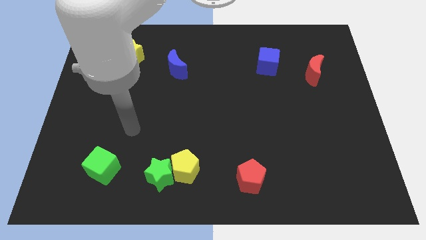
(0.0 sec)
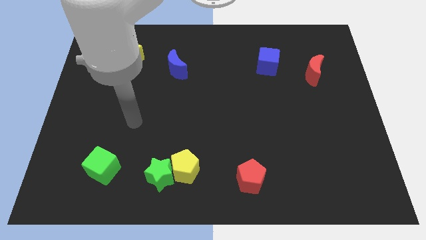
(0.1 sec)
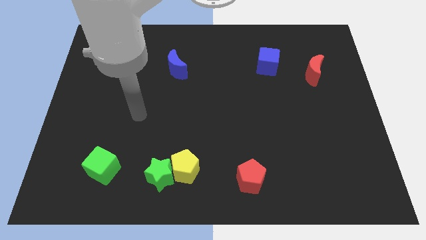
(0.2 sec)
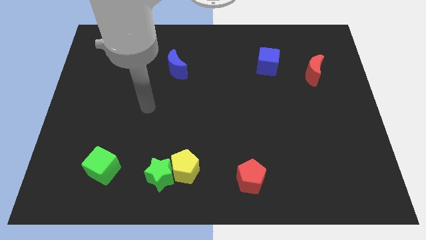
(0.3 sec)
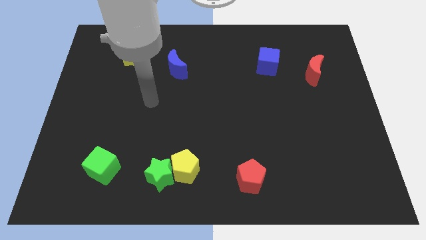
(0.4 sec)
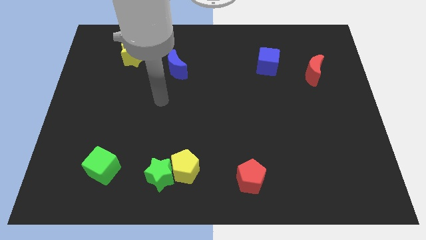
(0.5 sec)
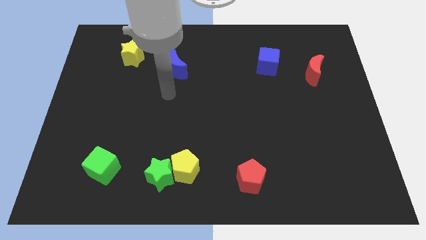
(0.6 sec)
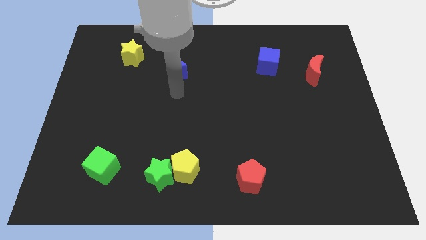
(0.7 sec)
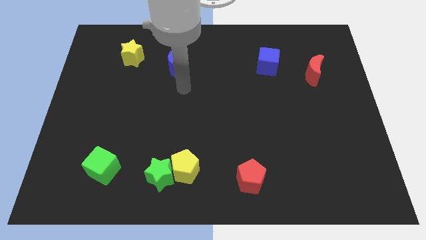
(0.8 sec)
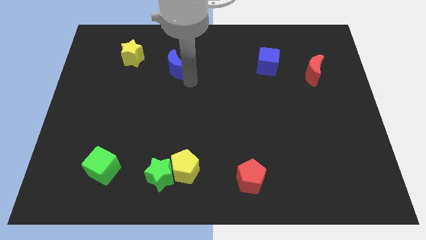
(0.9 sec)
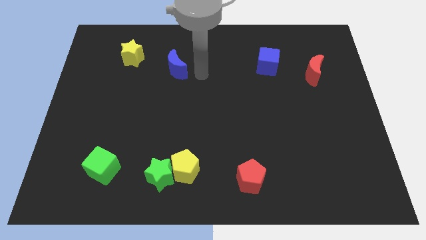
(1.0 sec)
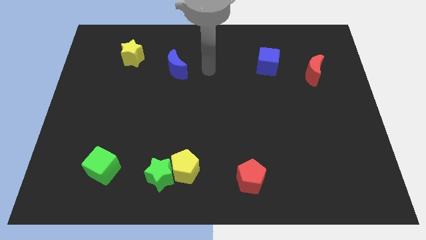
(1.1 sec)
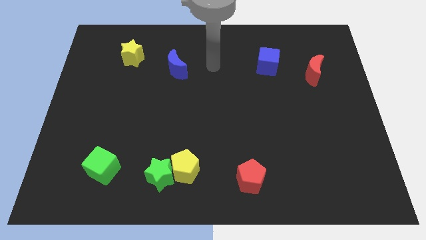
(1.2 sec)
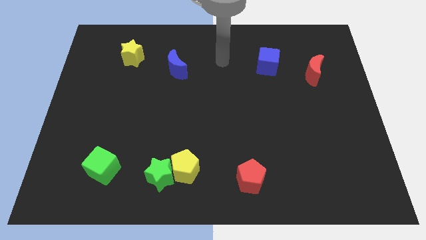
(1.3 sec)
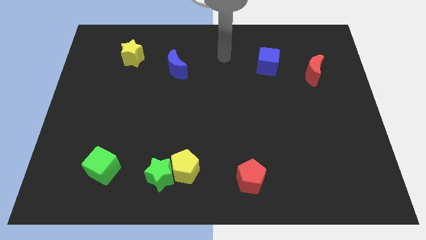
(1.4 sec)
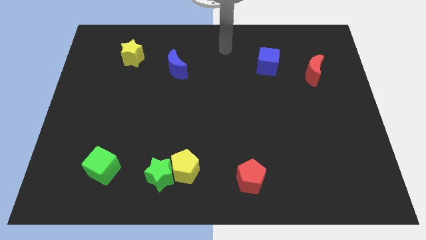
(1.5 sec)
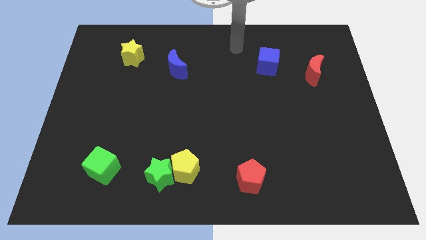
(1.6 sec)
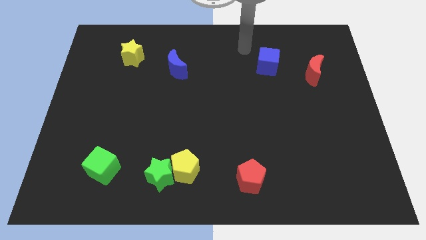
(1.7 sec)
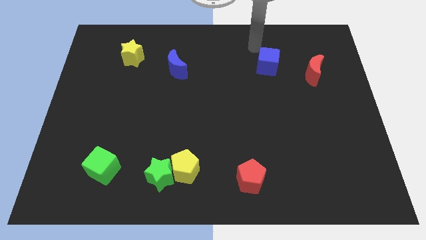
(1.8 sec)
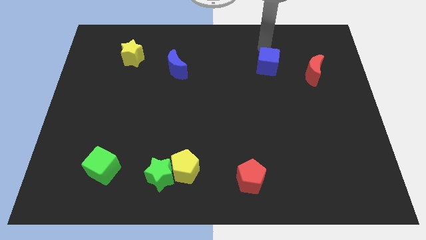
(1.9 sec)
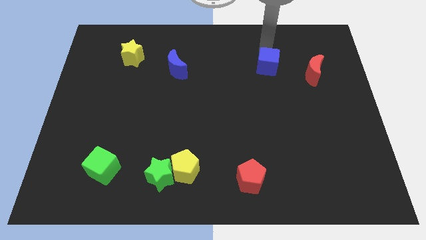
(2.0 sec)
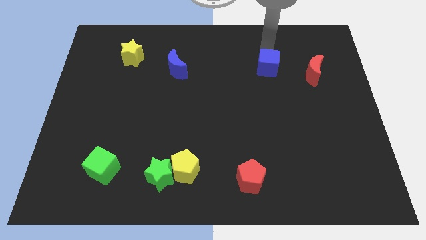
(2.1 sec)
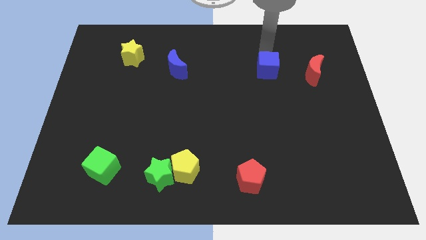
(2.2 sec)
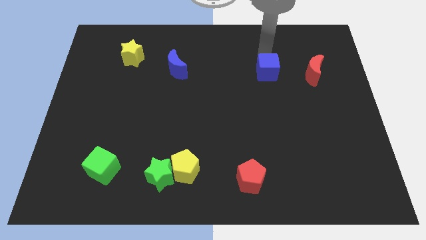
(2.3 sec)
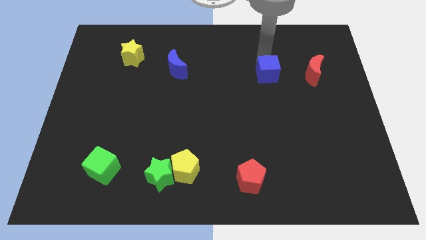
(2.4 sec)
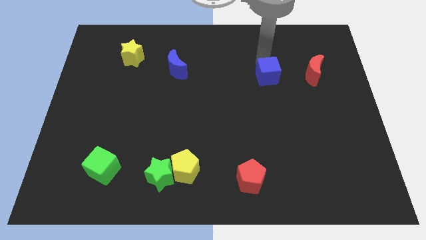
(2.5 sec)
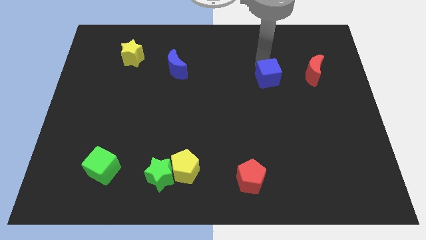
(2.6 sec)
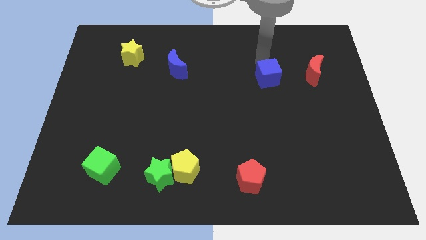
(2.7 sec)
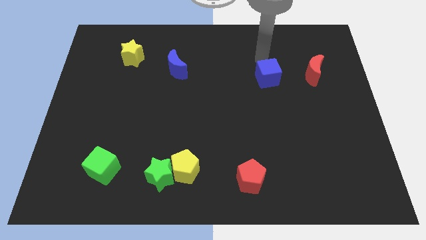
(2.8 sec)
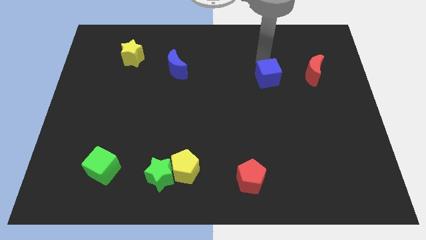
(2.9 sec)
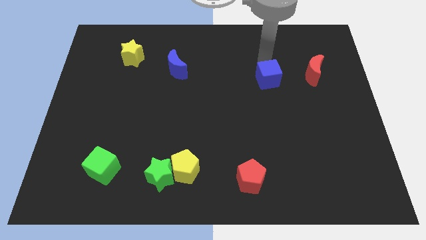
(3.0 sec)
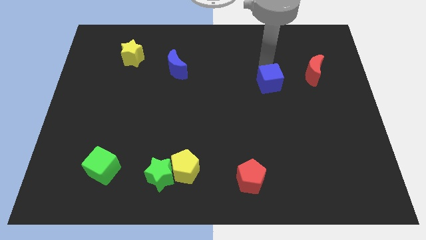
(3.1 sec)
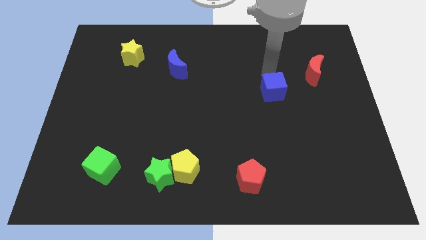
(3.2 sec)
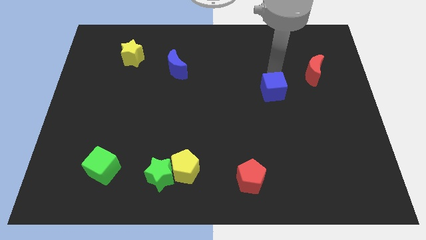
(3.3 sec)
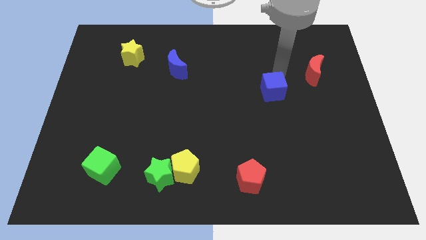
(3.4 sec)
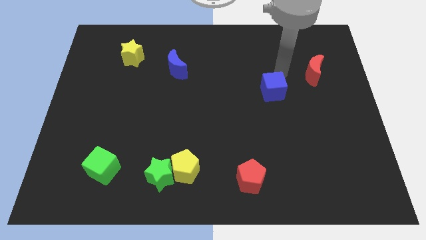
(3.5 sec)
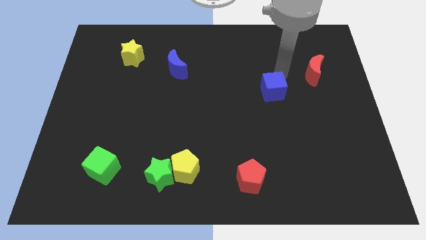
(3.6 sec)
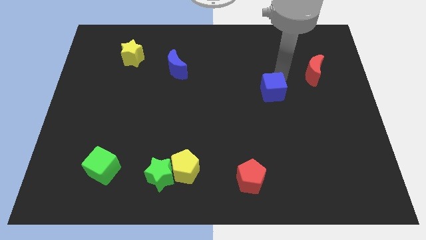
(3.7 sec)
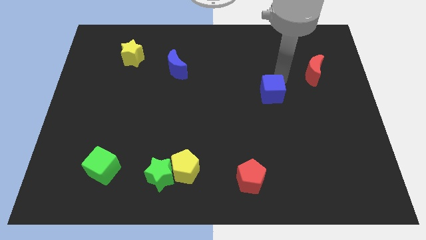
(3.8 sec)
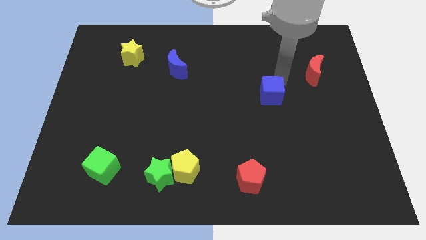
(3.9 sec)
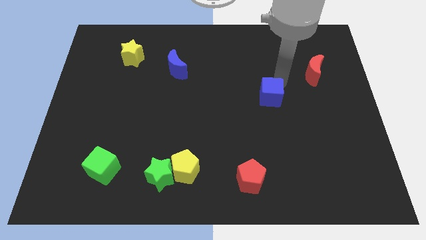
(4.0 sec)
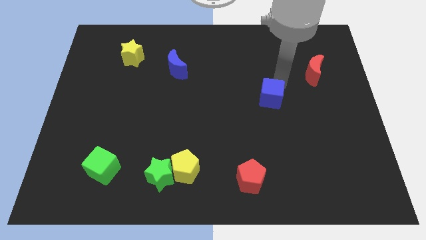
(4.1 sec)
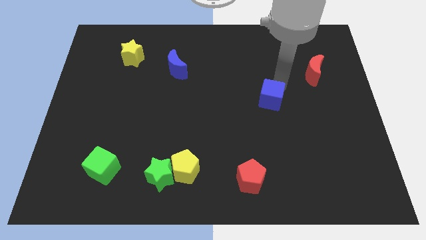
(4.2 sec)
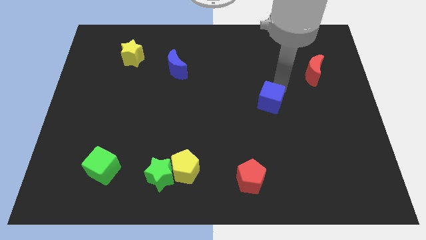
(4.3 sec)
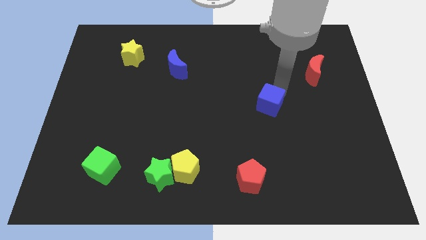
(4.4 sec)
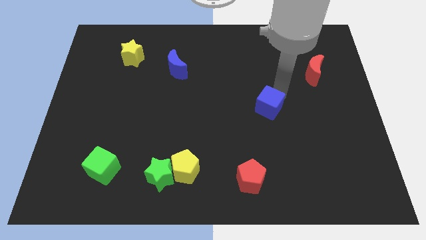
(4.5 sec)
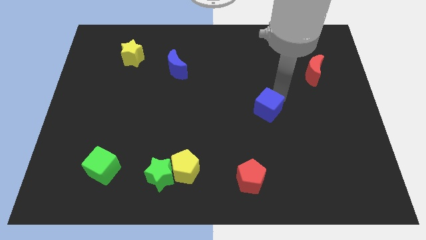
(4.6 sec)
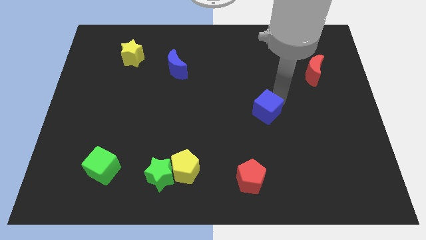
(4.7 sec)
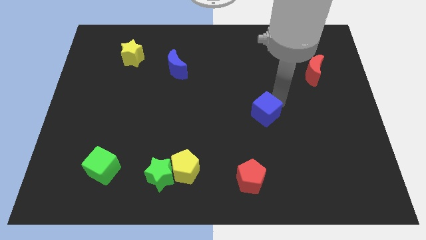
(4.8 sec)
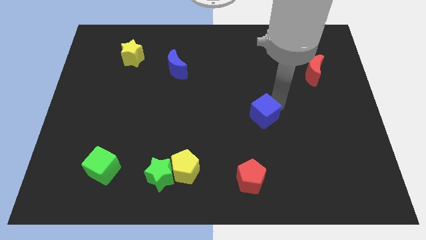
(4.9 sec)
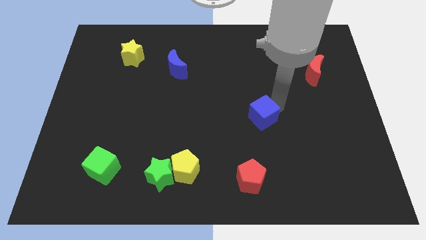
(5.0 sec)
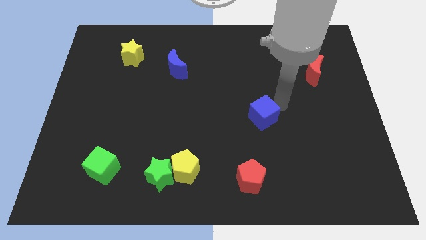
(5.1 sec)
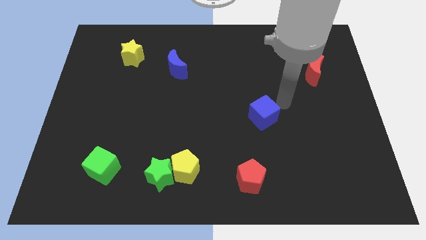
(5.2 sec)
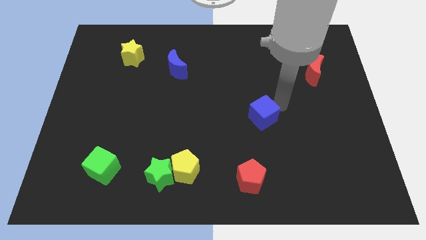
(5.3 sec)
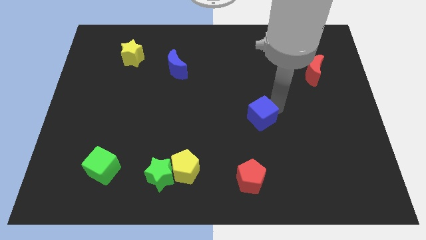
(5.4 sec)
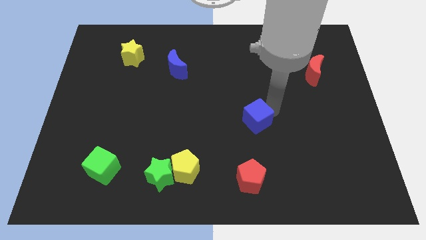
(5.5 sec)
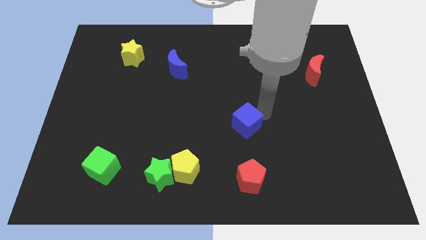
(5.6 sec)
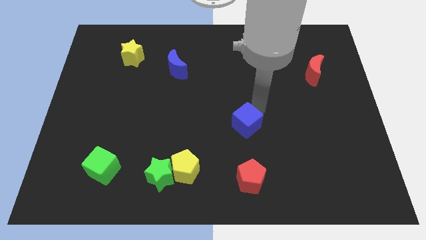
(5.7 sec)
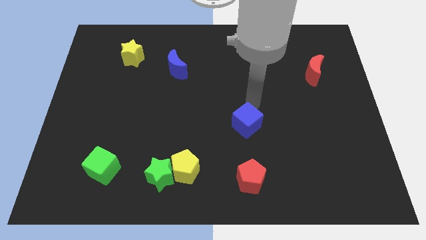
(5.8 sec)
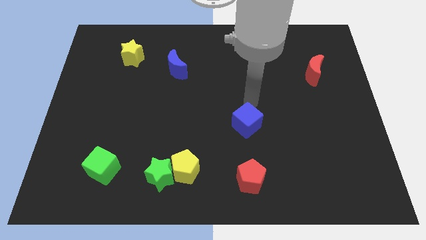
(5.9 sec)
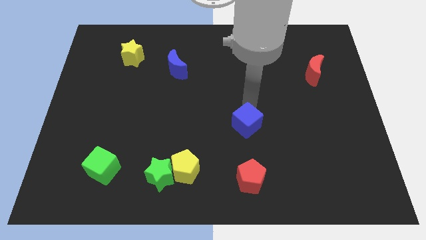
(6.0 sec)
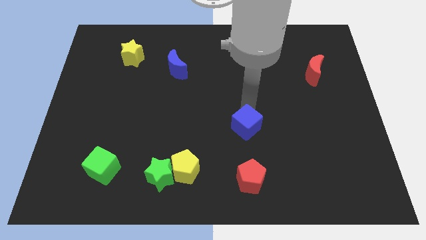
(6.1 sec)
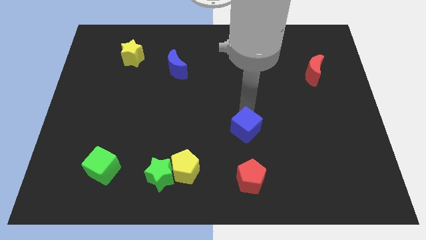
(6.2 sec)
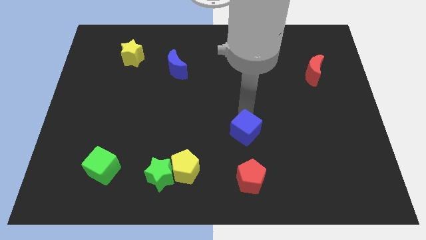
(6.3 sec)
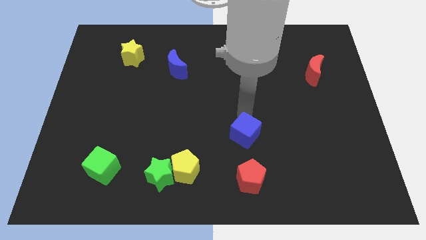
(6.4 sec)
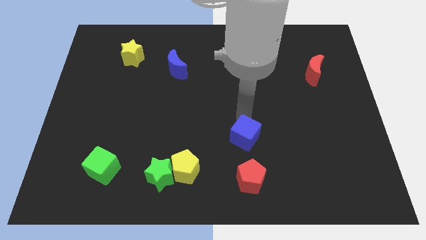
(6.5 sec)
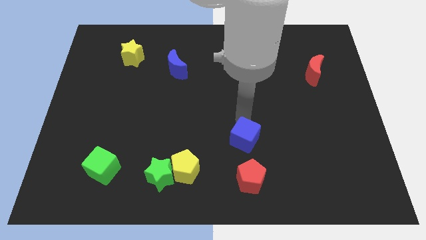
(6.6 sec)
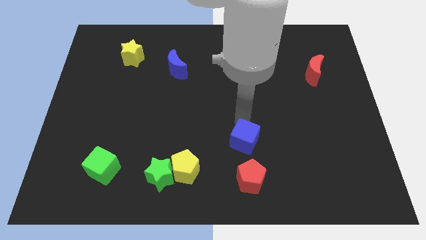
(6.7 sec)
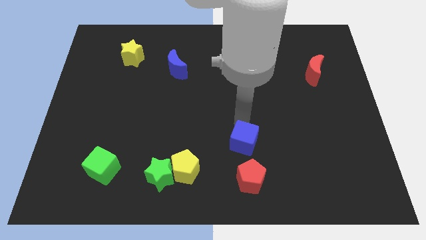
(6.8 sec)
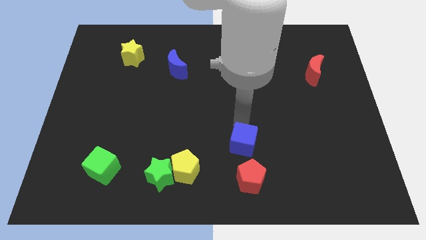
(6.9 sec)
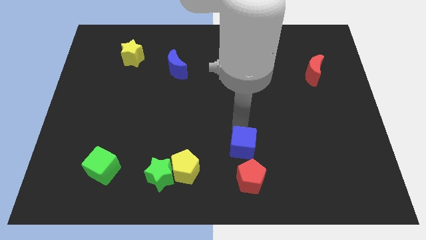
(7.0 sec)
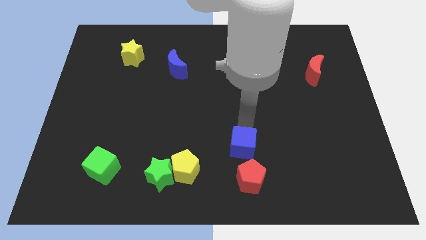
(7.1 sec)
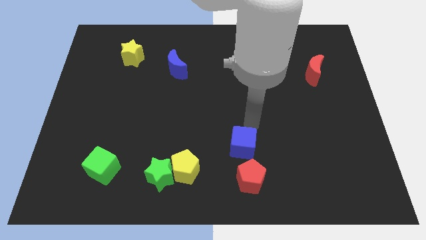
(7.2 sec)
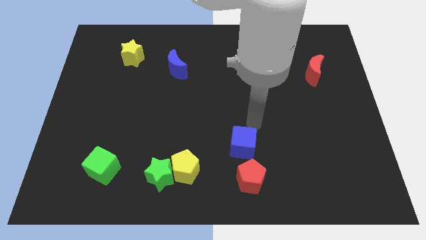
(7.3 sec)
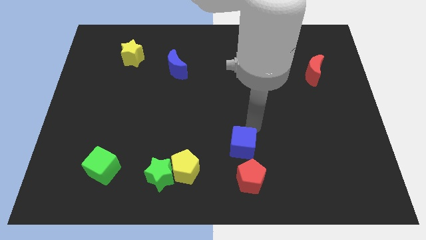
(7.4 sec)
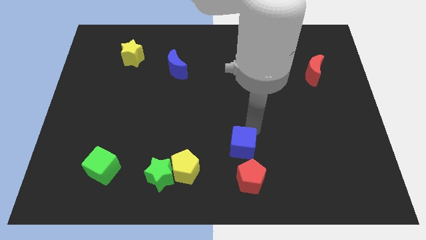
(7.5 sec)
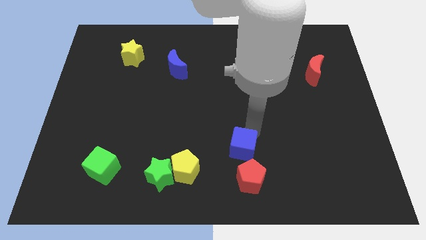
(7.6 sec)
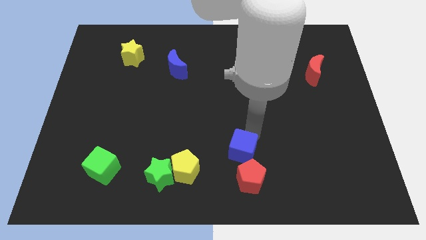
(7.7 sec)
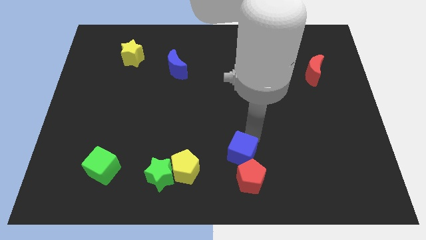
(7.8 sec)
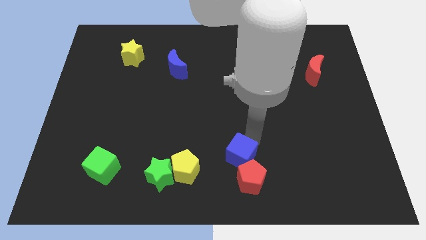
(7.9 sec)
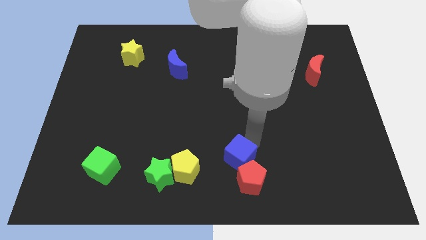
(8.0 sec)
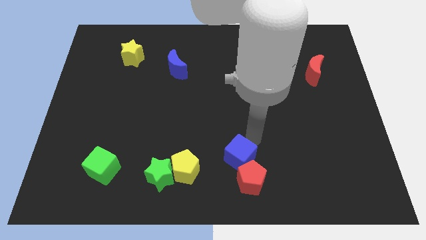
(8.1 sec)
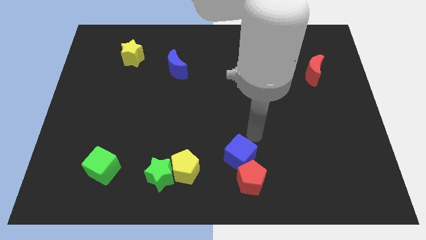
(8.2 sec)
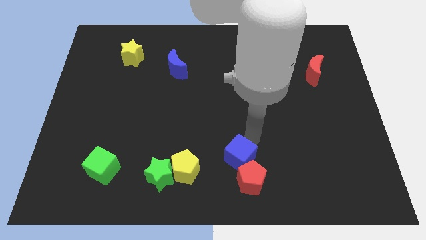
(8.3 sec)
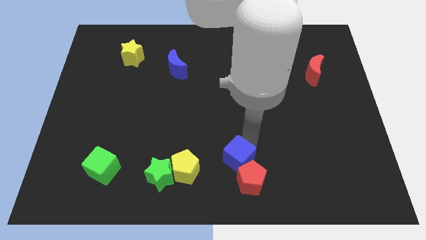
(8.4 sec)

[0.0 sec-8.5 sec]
slide the blue cube to the bottom side
